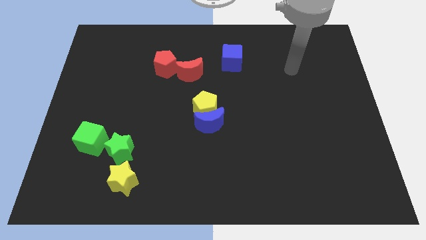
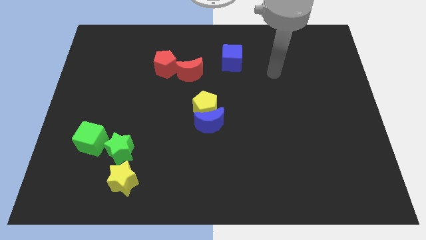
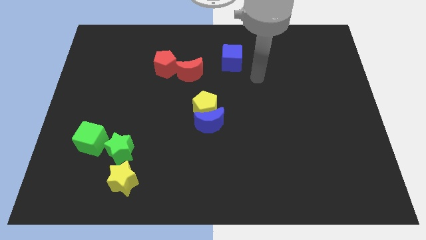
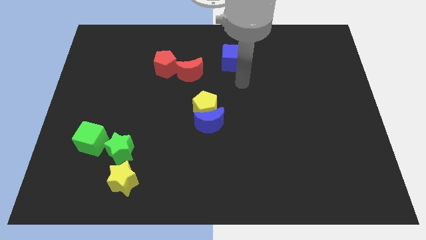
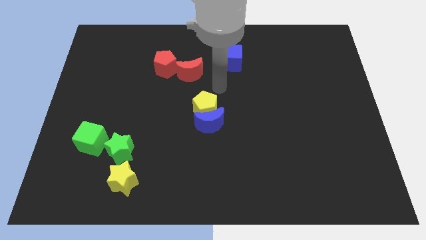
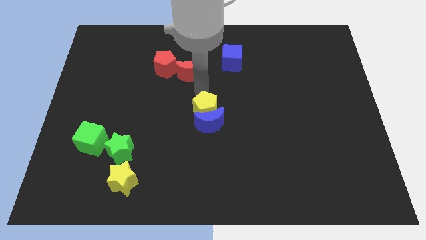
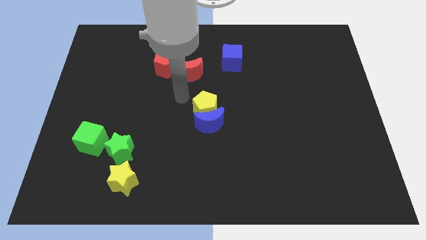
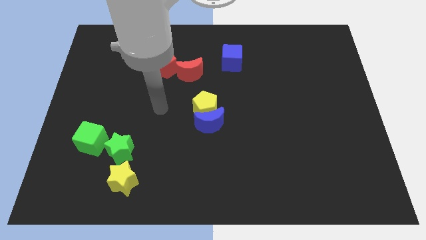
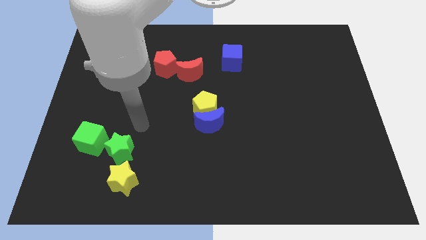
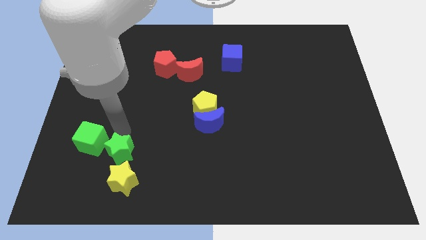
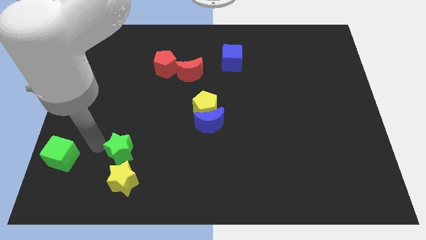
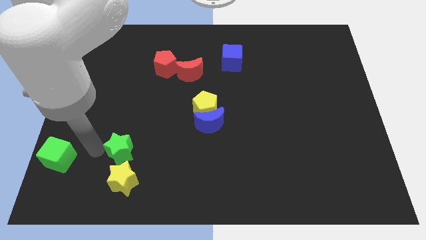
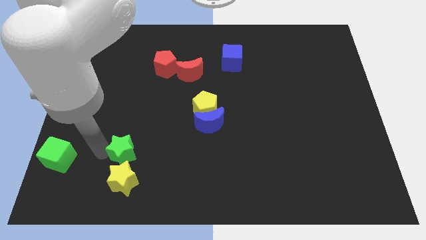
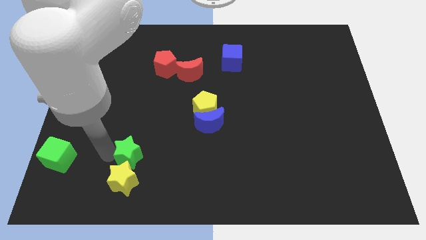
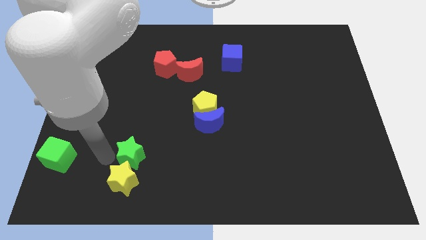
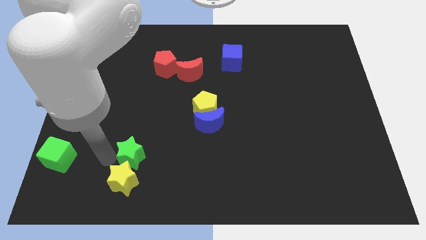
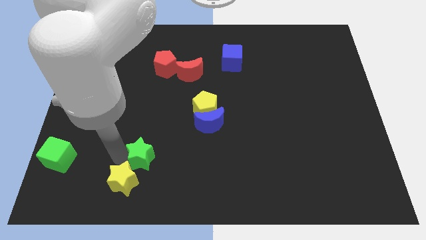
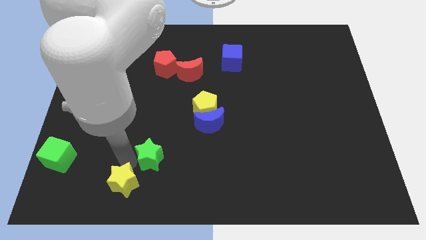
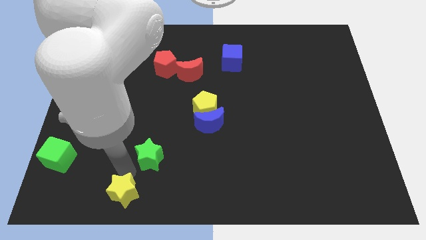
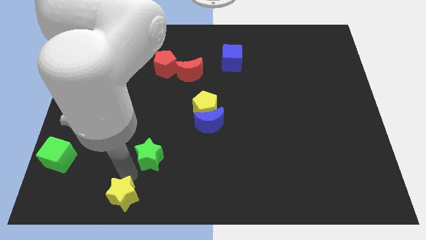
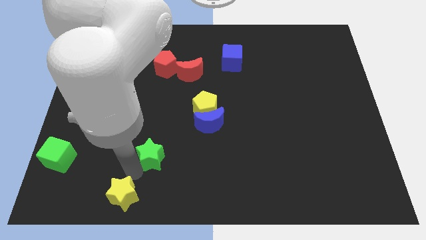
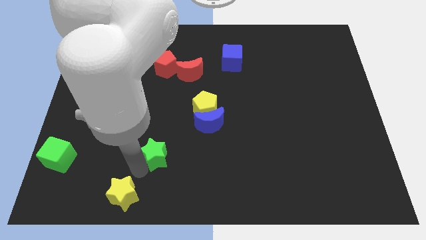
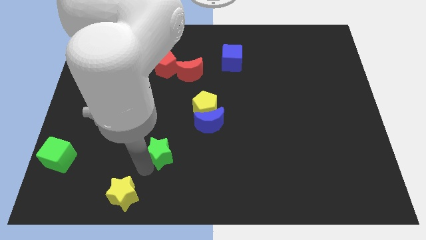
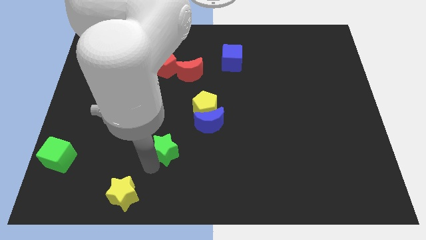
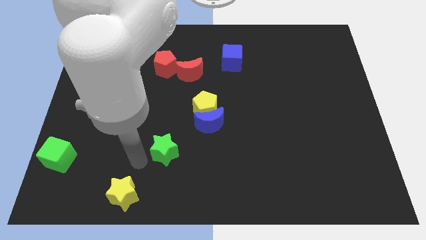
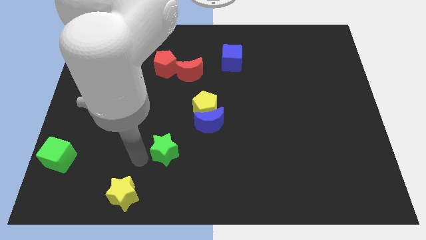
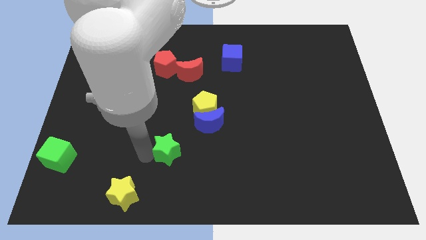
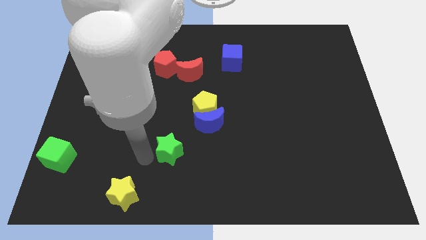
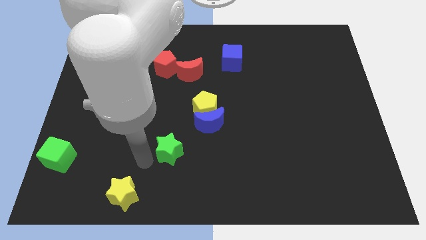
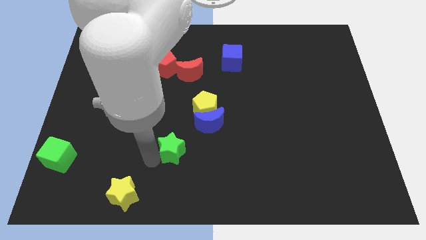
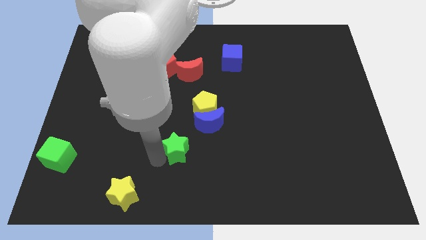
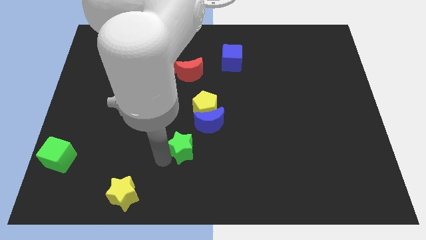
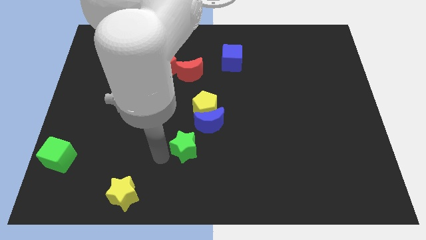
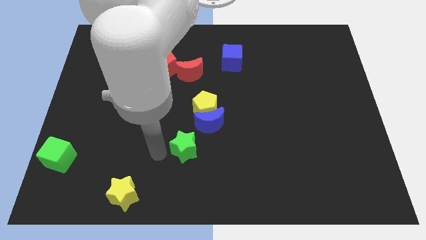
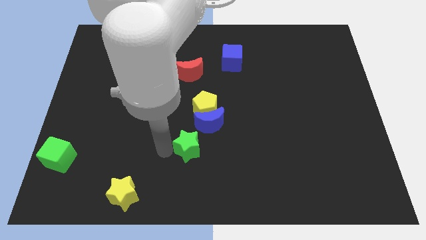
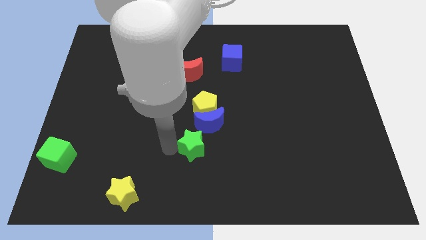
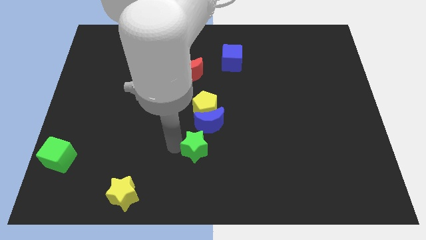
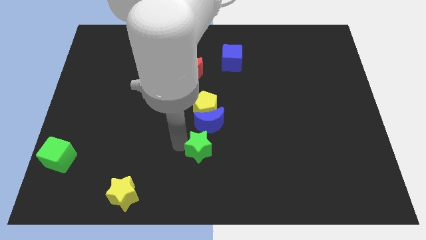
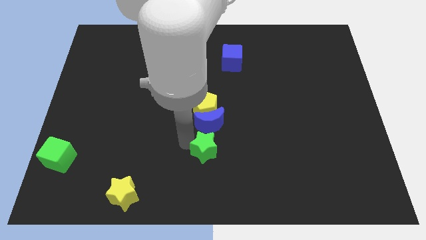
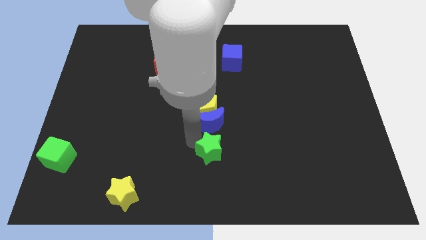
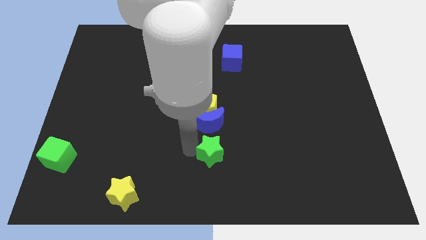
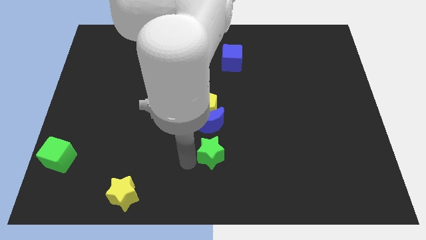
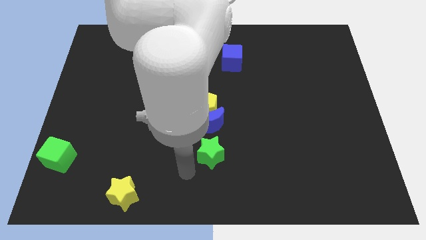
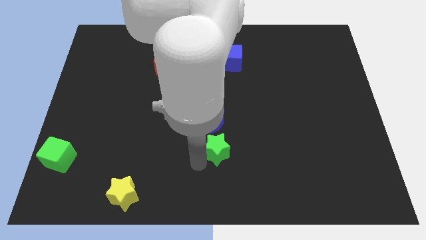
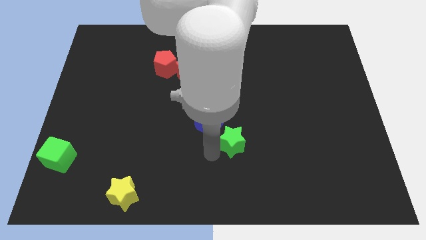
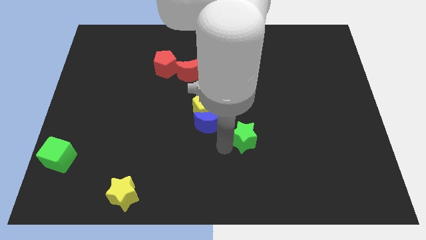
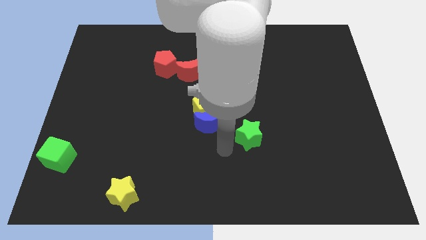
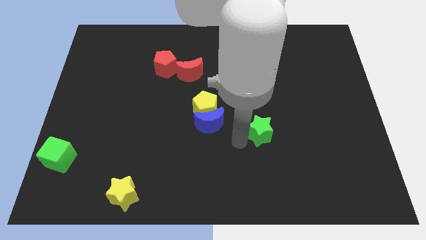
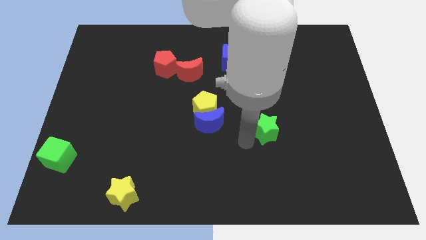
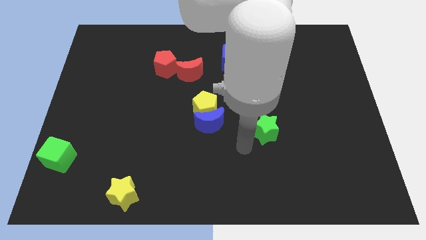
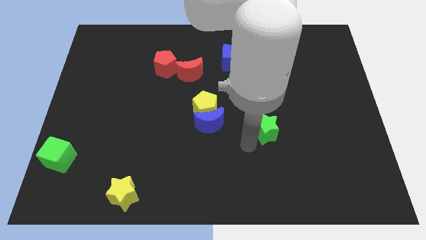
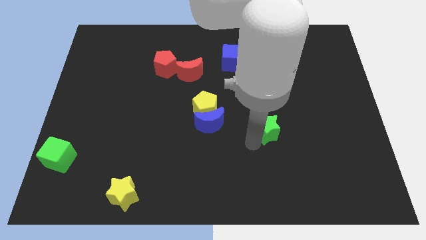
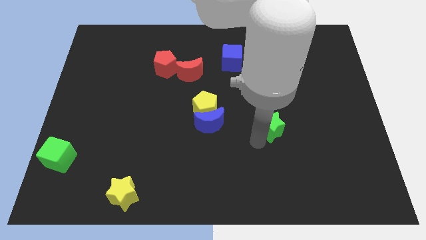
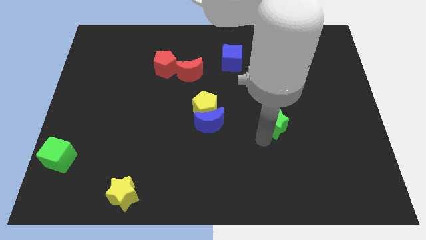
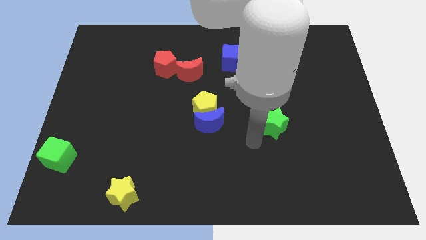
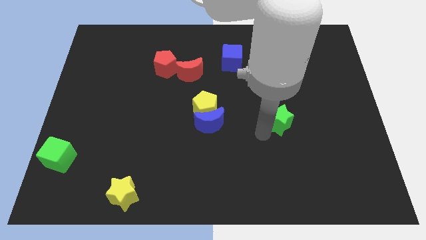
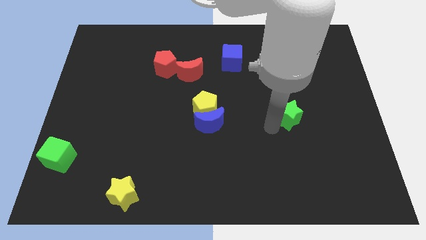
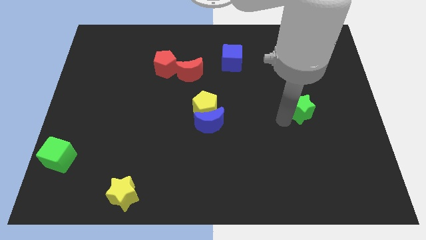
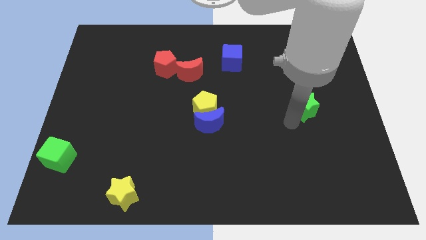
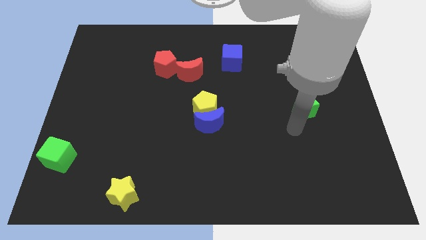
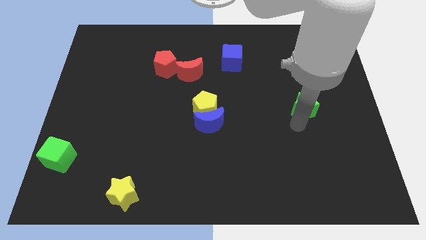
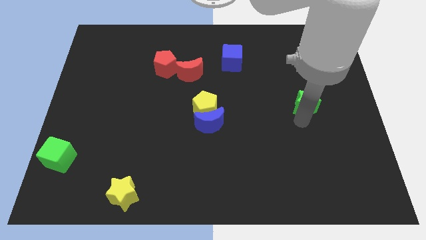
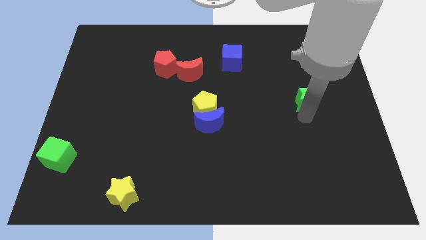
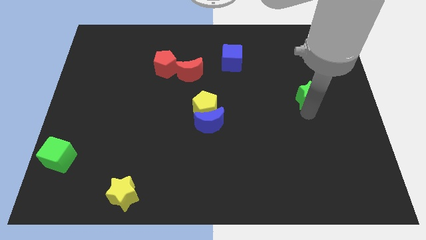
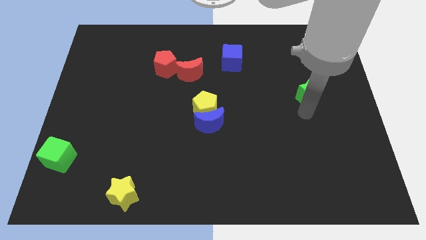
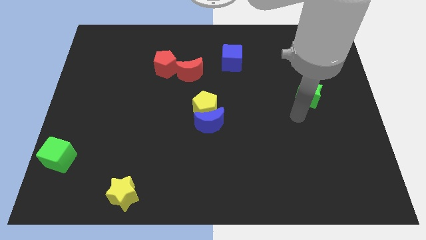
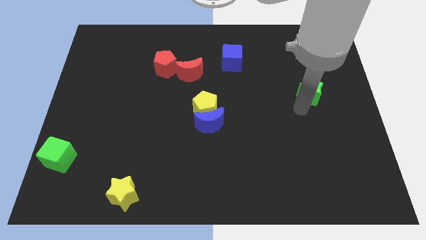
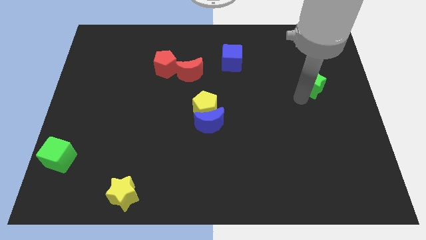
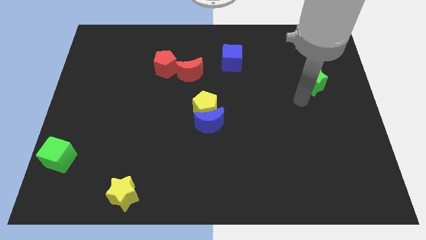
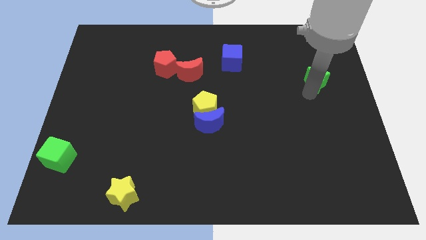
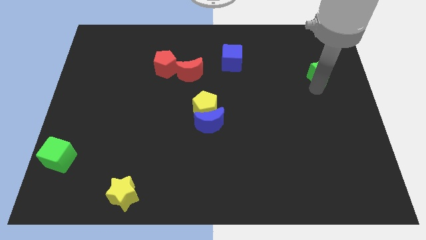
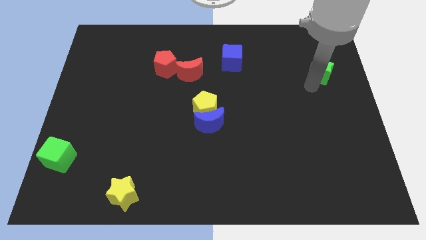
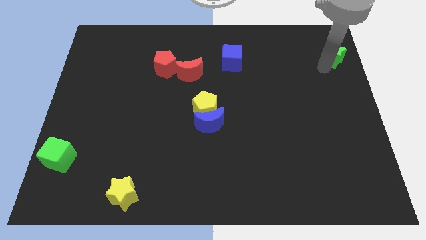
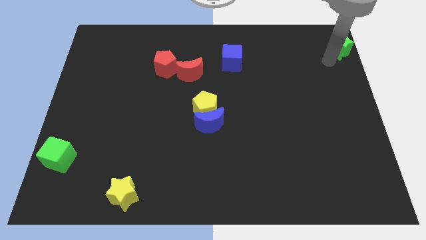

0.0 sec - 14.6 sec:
put the green star to the upper right corner
